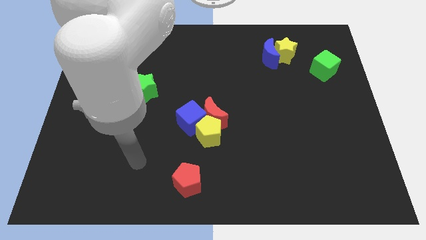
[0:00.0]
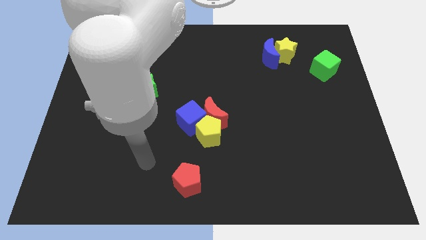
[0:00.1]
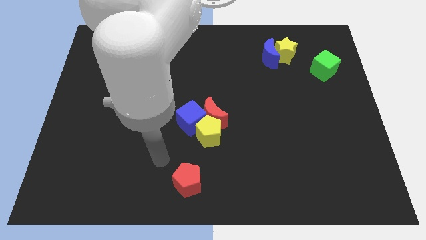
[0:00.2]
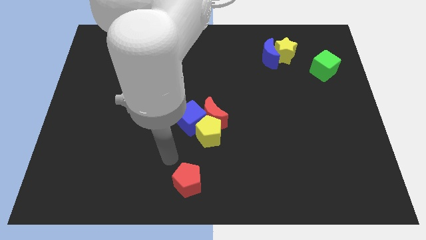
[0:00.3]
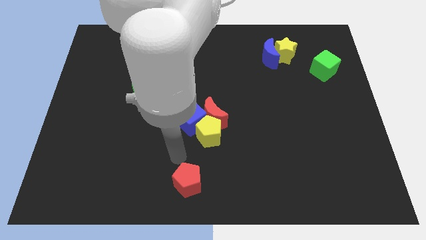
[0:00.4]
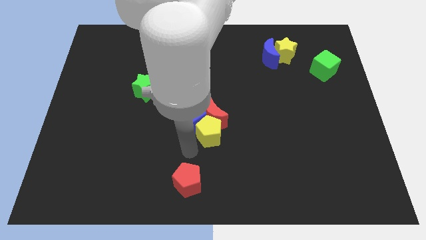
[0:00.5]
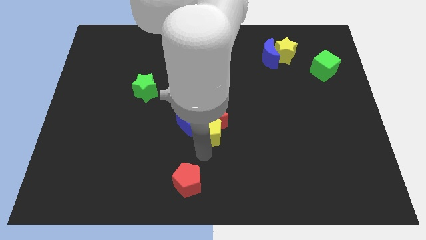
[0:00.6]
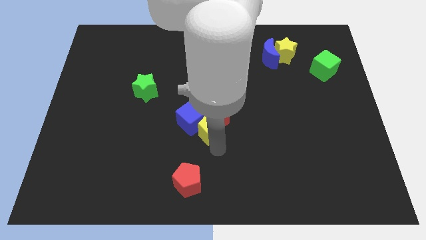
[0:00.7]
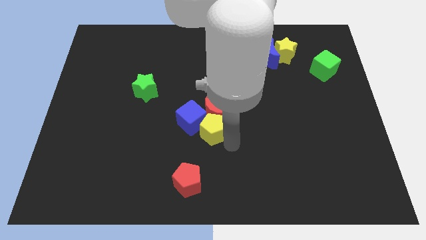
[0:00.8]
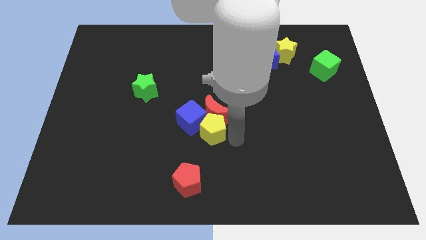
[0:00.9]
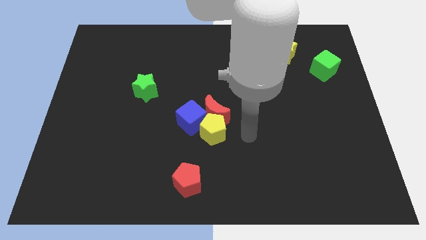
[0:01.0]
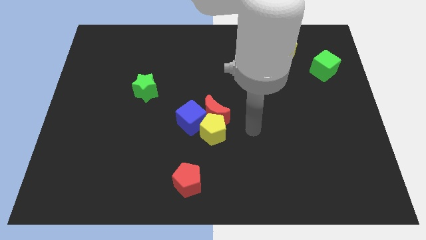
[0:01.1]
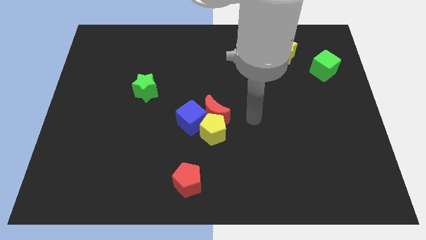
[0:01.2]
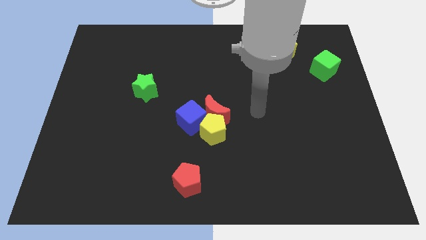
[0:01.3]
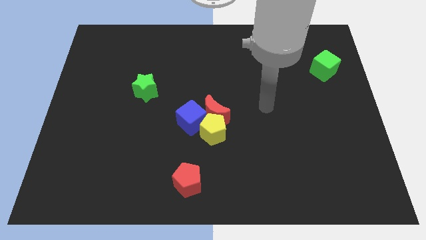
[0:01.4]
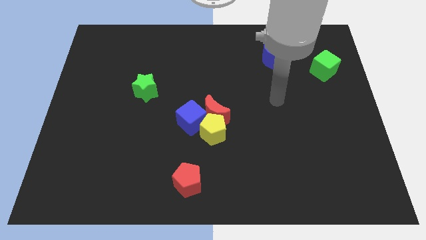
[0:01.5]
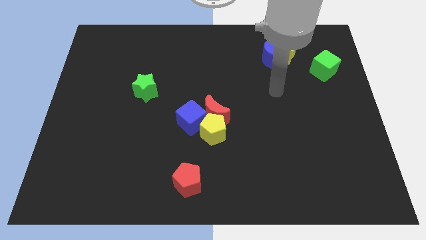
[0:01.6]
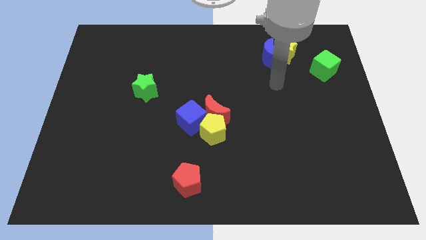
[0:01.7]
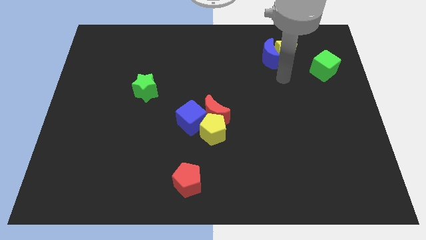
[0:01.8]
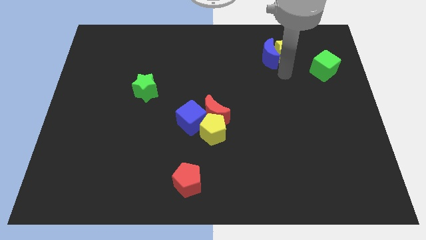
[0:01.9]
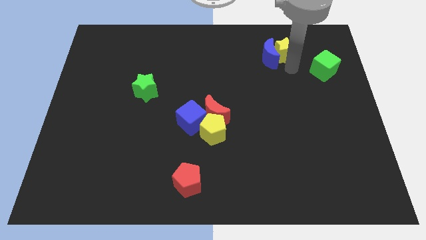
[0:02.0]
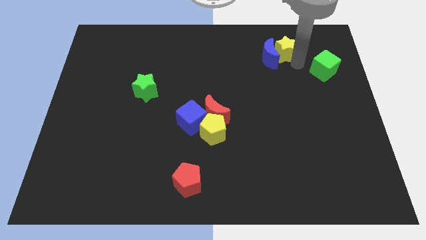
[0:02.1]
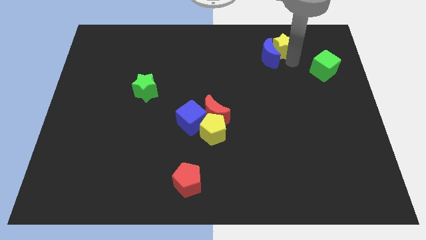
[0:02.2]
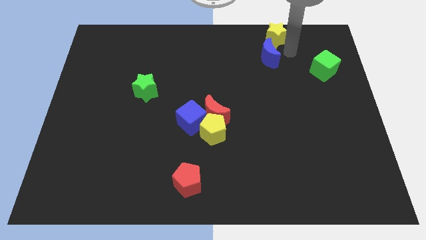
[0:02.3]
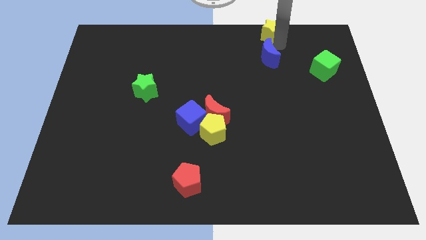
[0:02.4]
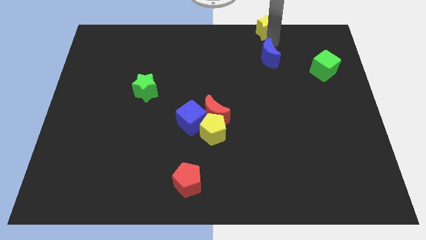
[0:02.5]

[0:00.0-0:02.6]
separate the blue moon from the yellow star

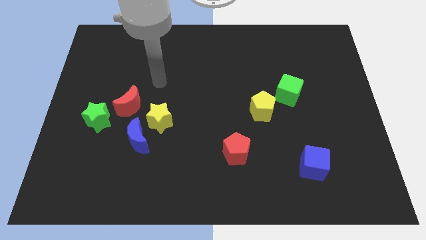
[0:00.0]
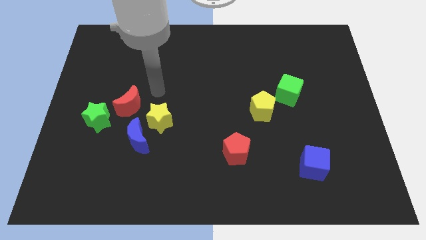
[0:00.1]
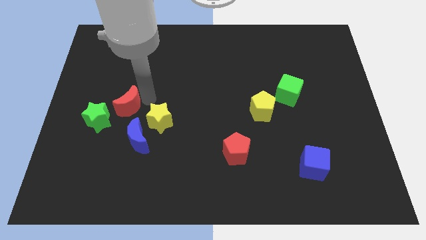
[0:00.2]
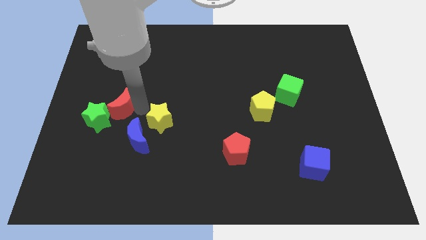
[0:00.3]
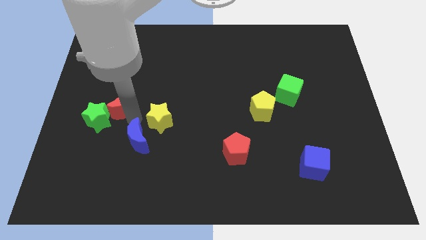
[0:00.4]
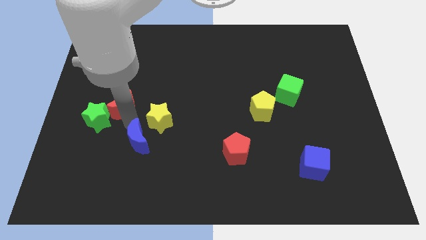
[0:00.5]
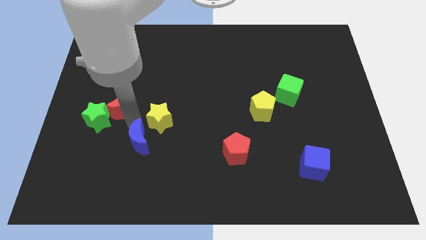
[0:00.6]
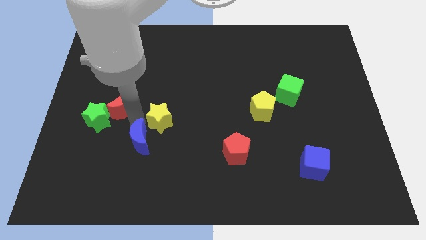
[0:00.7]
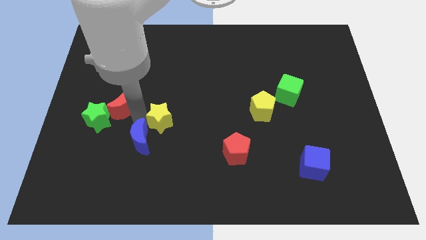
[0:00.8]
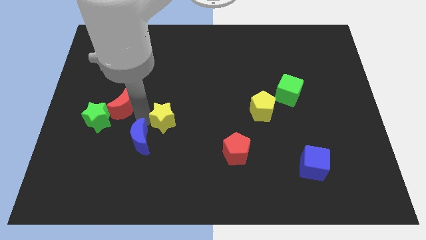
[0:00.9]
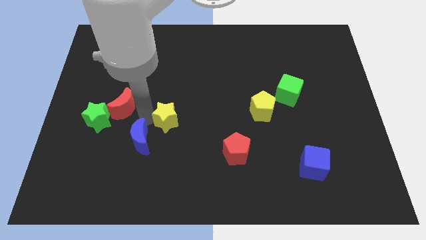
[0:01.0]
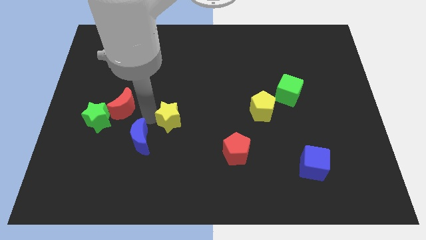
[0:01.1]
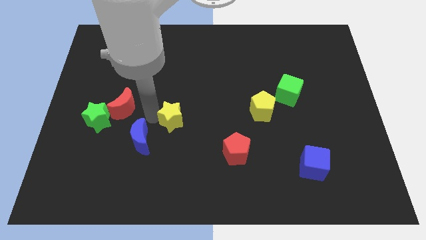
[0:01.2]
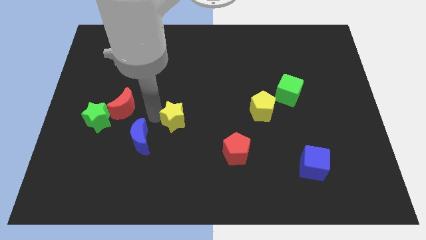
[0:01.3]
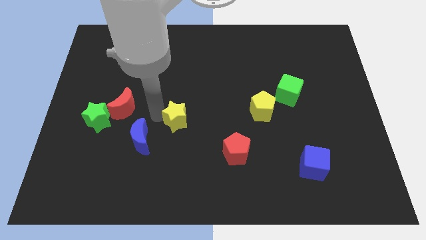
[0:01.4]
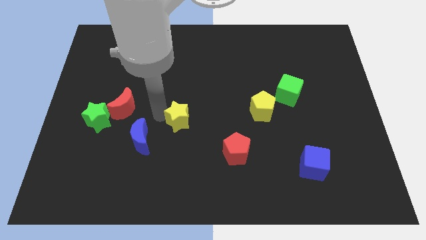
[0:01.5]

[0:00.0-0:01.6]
move the yellow star away from the blue moon and red moon

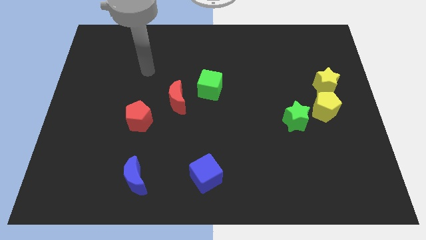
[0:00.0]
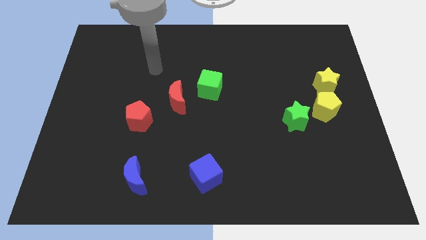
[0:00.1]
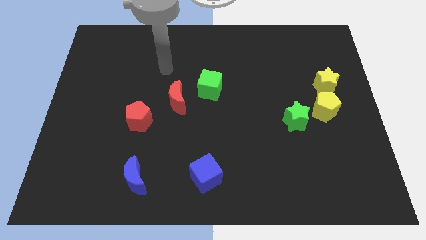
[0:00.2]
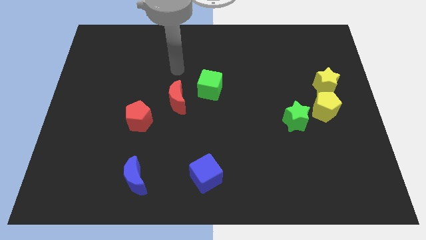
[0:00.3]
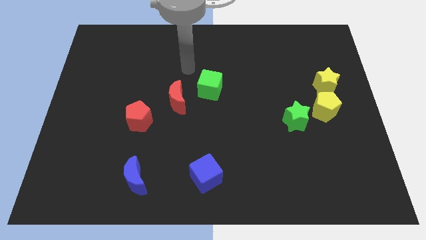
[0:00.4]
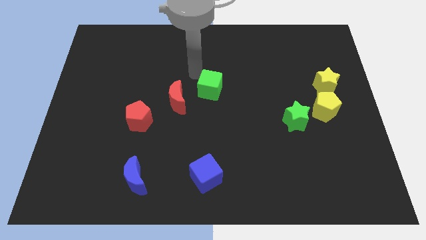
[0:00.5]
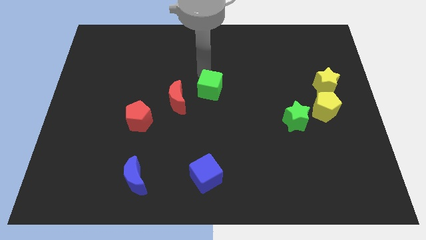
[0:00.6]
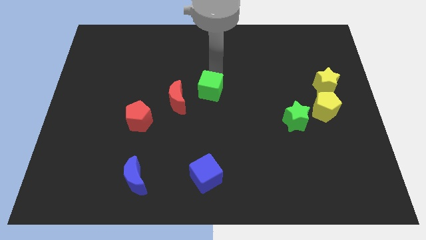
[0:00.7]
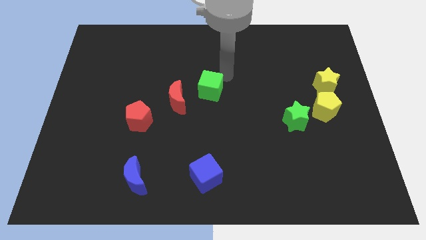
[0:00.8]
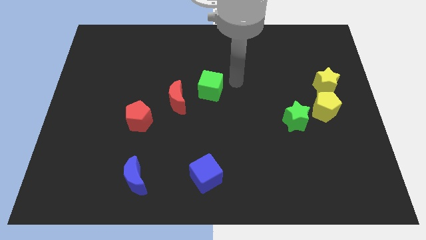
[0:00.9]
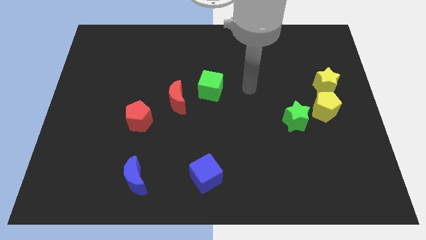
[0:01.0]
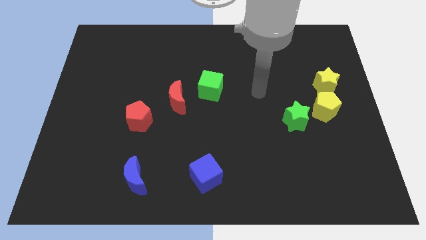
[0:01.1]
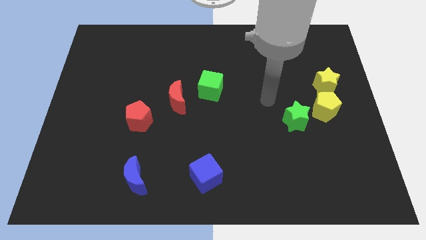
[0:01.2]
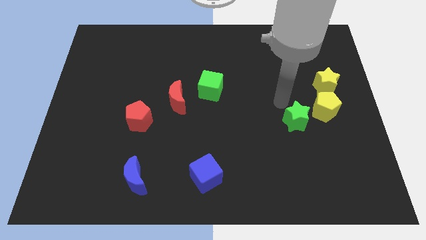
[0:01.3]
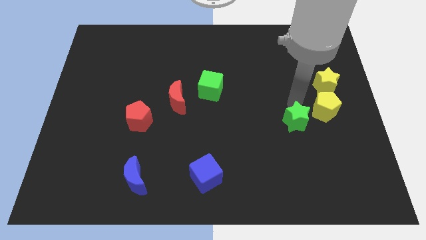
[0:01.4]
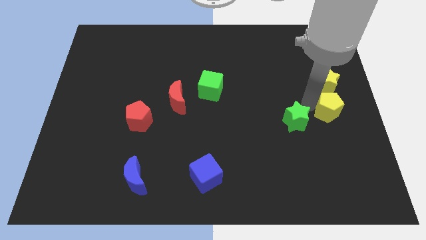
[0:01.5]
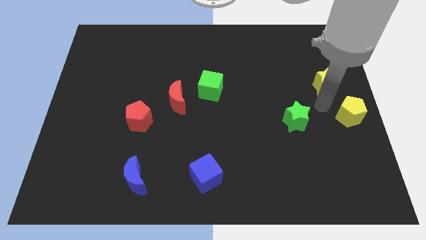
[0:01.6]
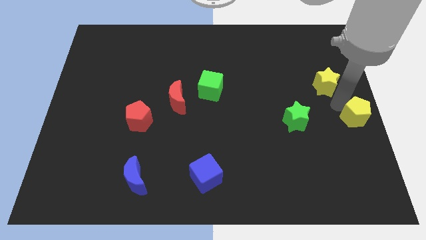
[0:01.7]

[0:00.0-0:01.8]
separate the yellow star from the yellow pentagon

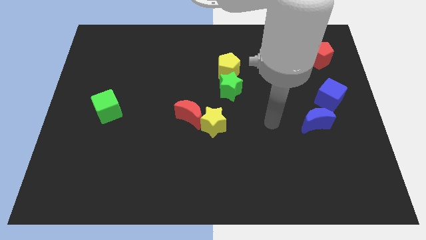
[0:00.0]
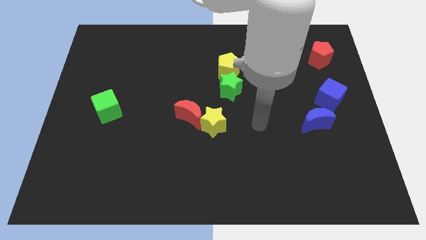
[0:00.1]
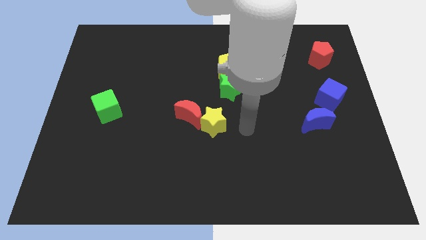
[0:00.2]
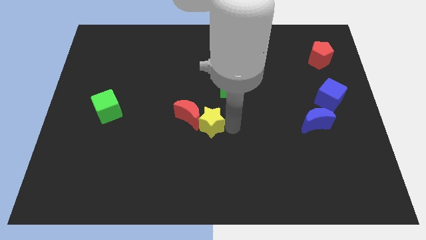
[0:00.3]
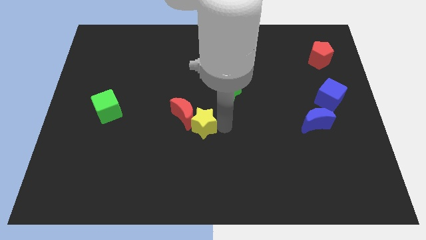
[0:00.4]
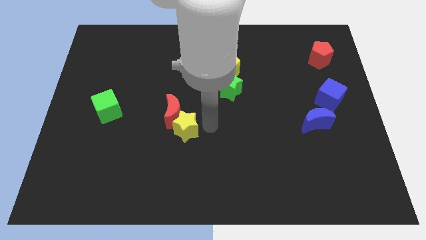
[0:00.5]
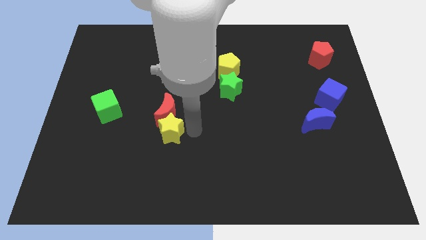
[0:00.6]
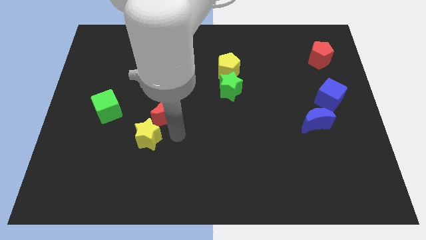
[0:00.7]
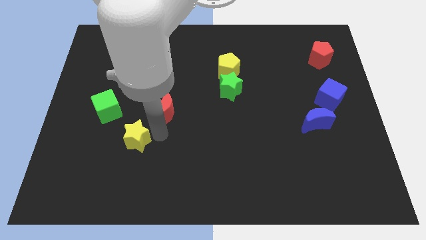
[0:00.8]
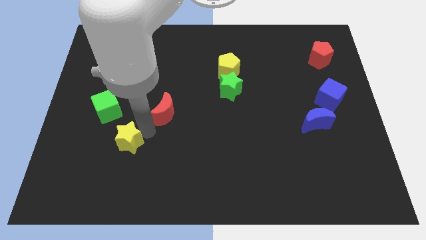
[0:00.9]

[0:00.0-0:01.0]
separate the red moon from the yellow star

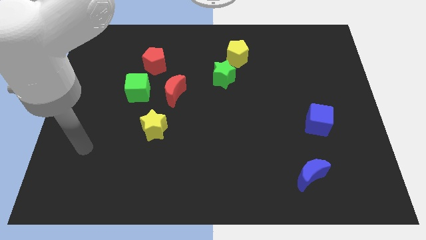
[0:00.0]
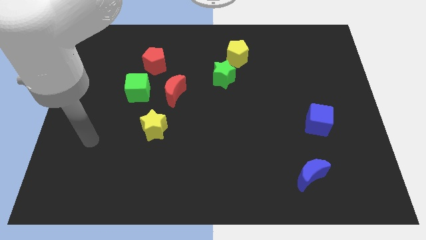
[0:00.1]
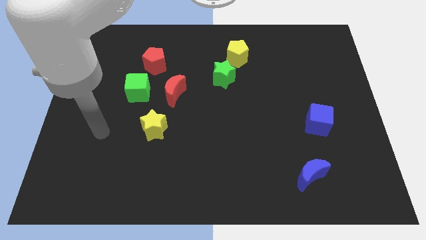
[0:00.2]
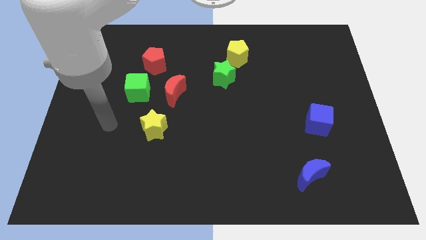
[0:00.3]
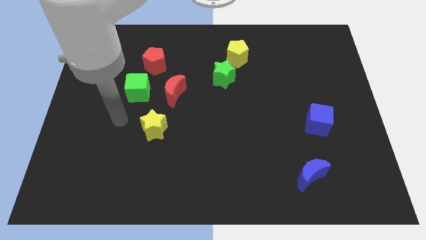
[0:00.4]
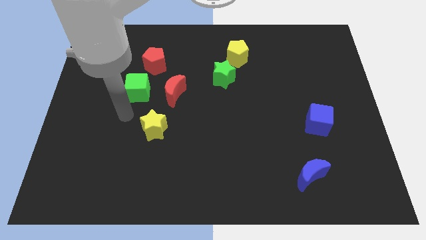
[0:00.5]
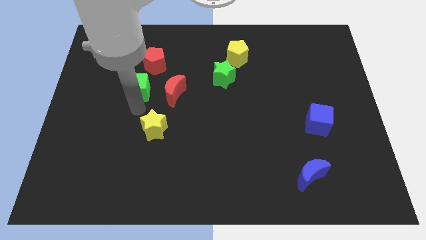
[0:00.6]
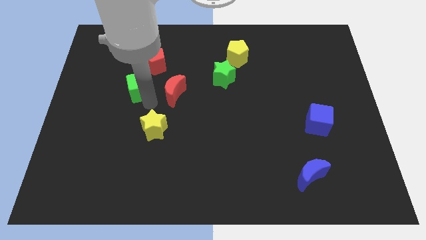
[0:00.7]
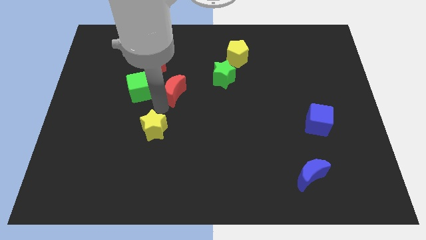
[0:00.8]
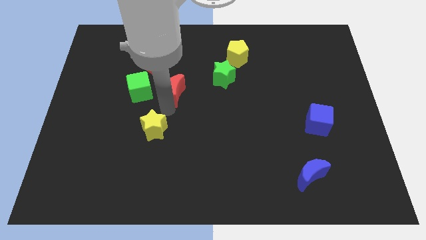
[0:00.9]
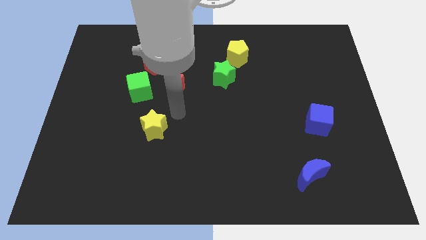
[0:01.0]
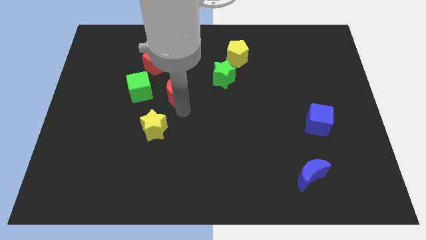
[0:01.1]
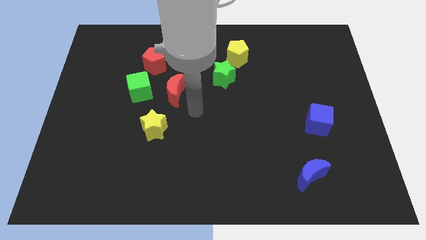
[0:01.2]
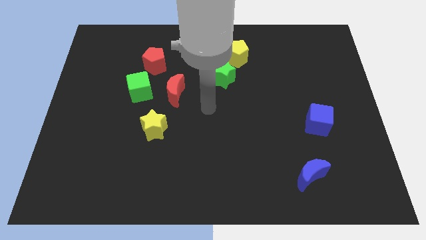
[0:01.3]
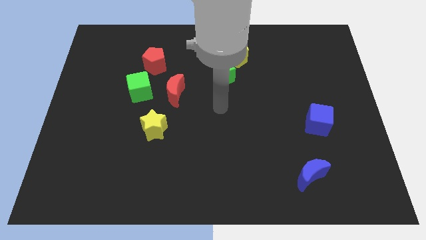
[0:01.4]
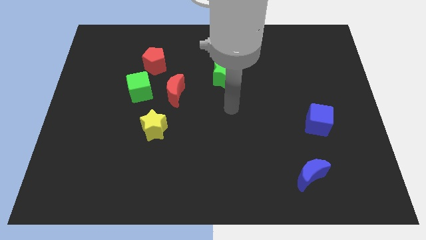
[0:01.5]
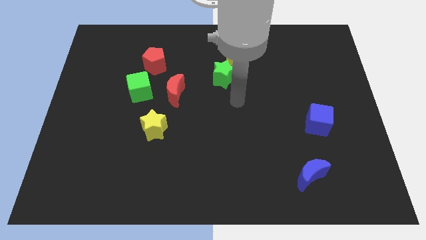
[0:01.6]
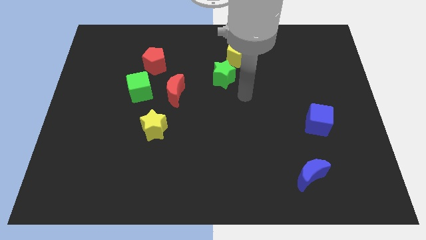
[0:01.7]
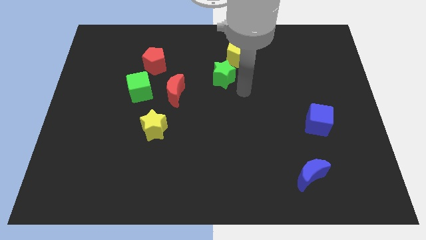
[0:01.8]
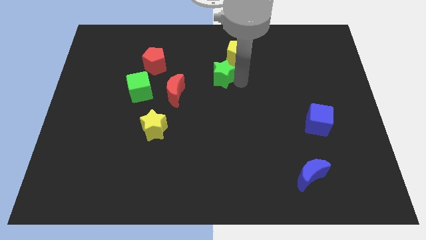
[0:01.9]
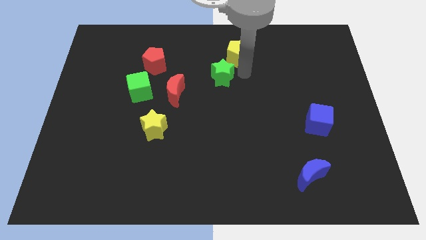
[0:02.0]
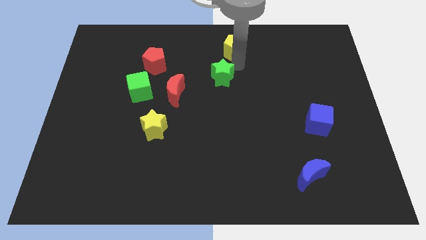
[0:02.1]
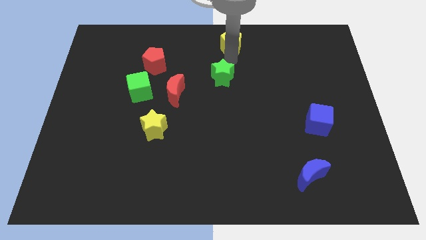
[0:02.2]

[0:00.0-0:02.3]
separate the green star from the yellow pentagon
